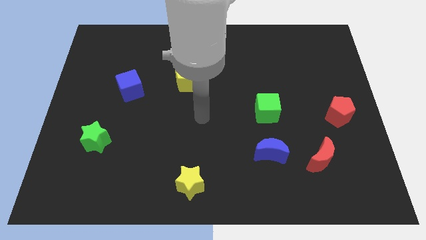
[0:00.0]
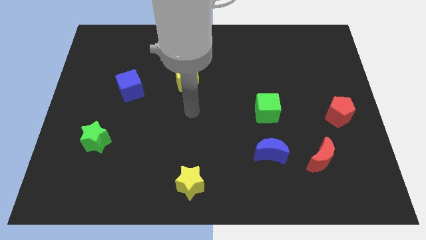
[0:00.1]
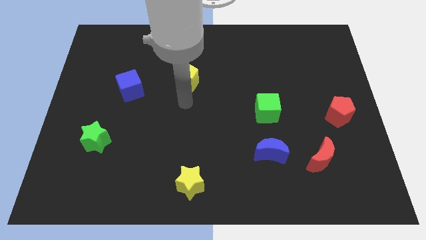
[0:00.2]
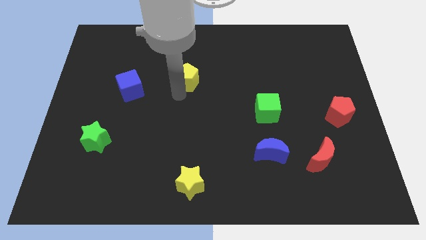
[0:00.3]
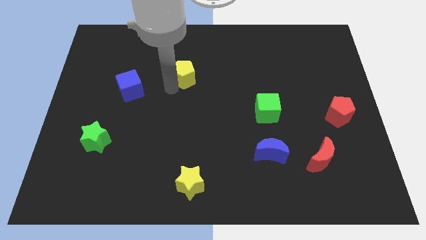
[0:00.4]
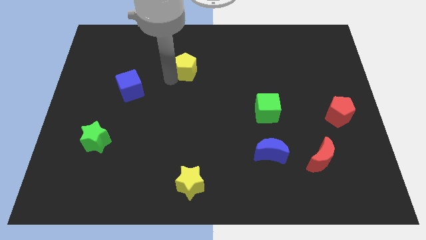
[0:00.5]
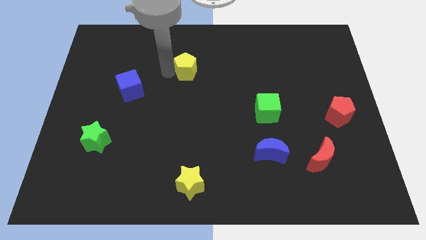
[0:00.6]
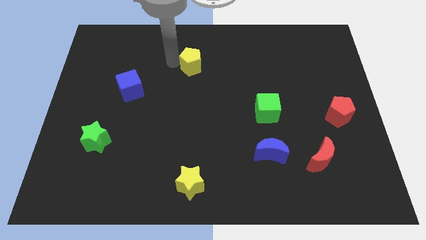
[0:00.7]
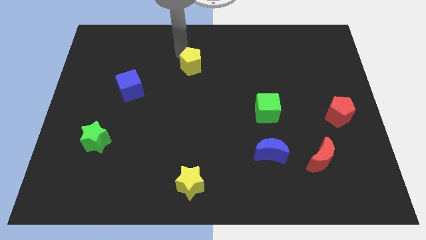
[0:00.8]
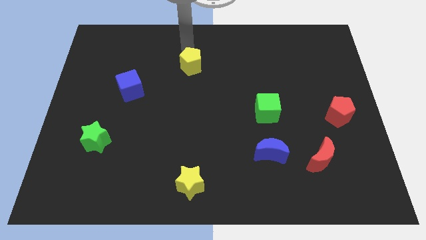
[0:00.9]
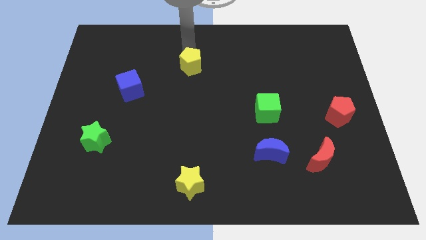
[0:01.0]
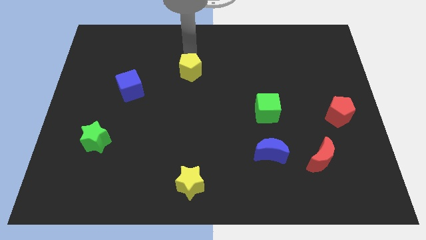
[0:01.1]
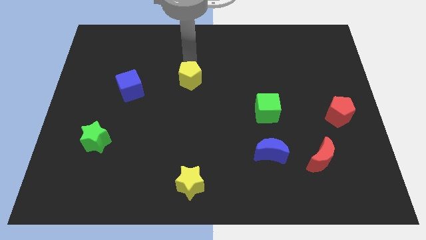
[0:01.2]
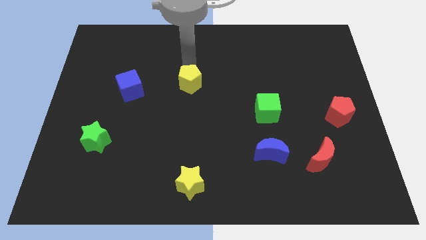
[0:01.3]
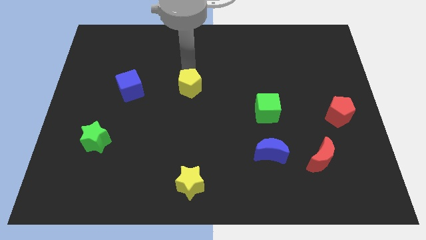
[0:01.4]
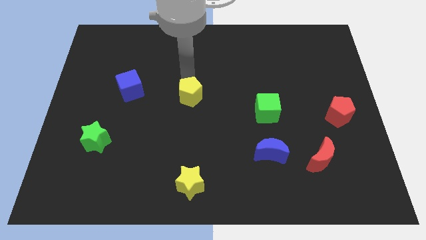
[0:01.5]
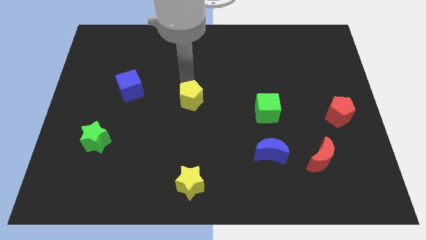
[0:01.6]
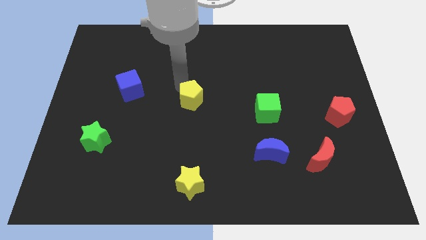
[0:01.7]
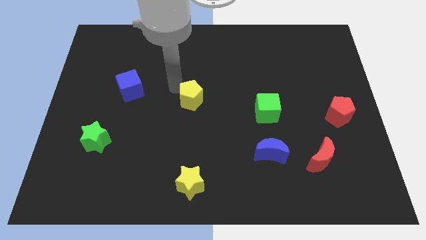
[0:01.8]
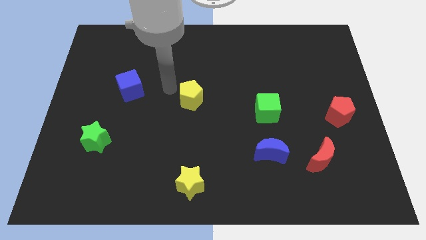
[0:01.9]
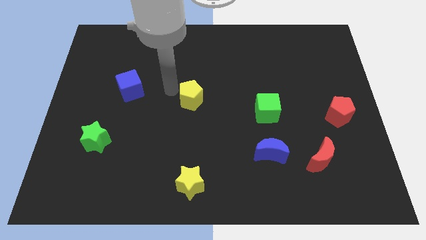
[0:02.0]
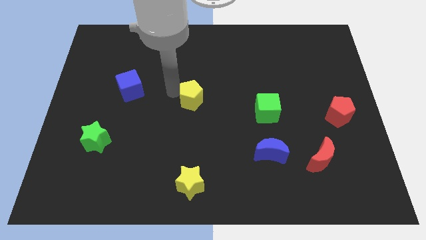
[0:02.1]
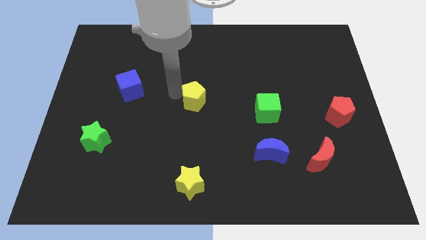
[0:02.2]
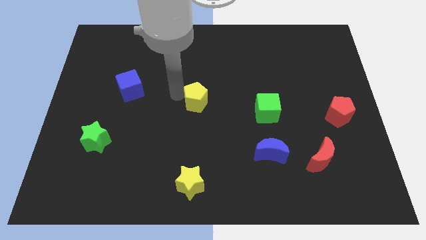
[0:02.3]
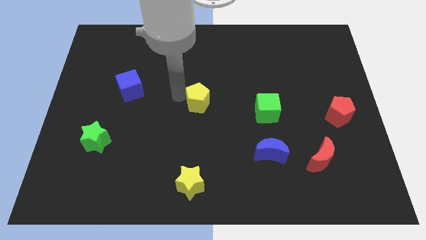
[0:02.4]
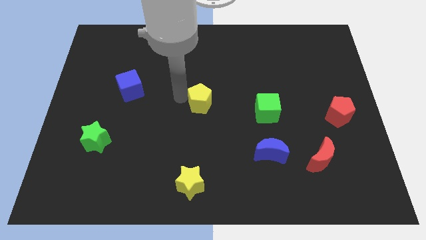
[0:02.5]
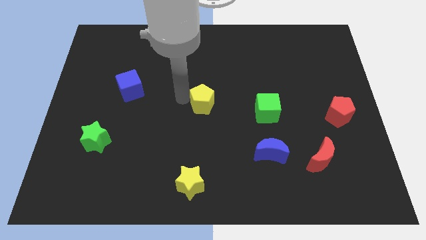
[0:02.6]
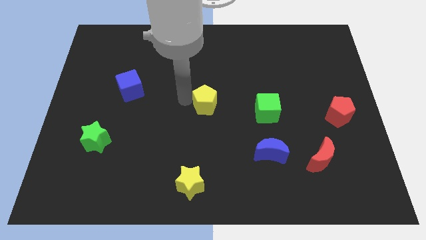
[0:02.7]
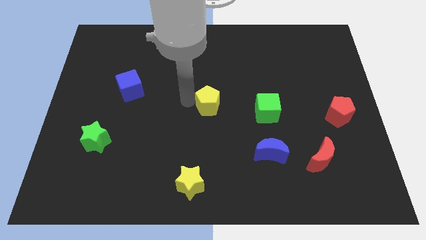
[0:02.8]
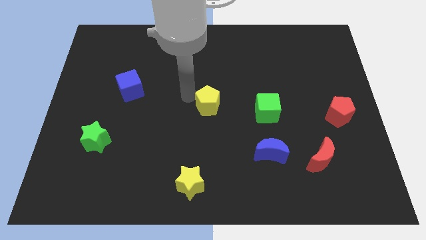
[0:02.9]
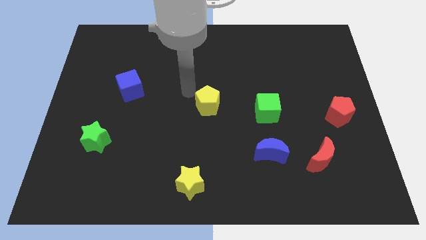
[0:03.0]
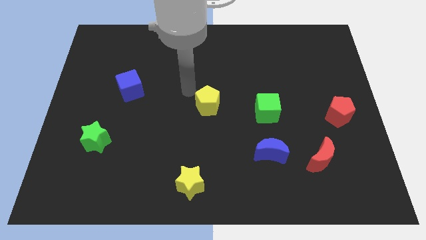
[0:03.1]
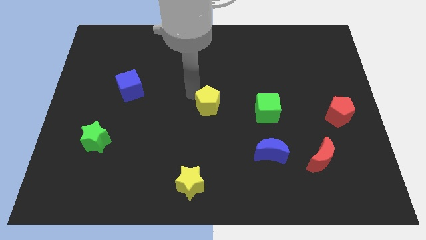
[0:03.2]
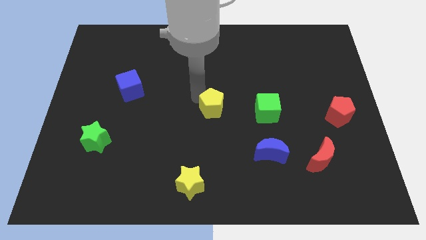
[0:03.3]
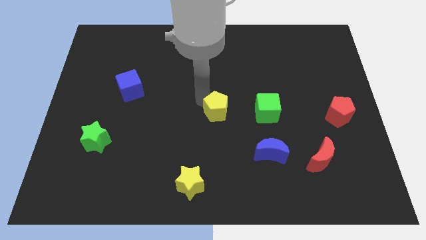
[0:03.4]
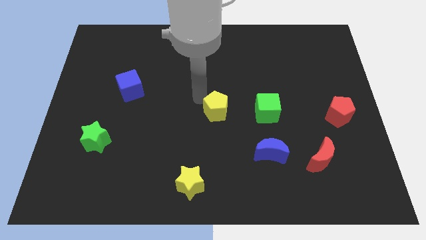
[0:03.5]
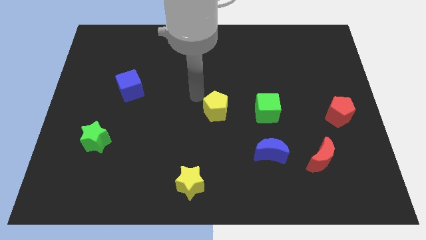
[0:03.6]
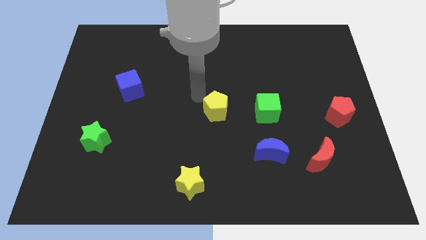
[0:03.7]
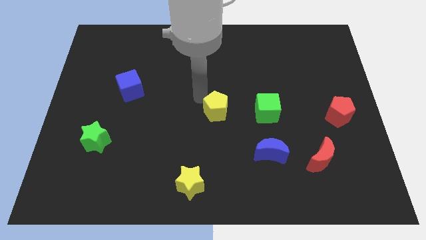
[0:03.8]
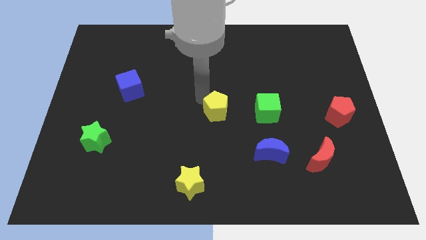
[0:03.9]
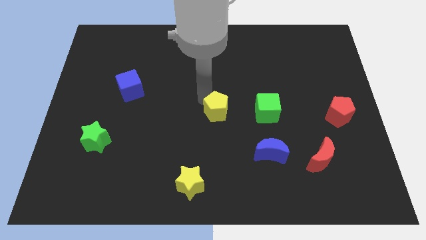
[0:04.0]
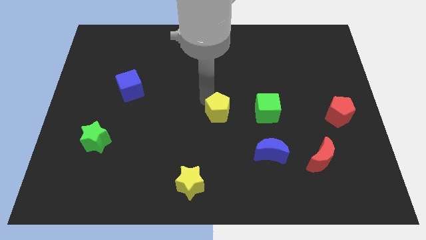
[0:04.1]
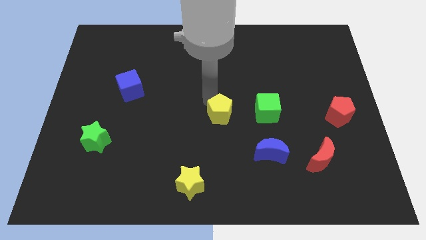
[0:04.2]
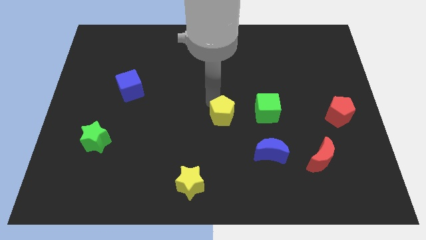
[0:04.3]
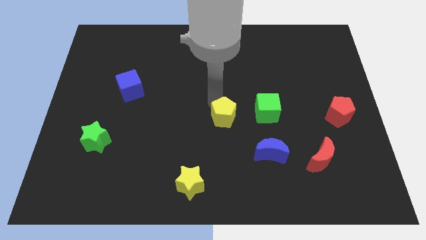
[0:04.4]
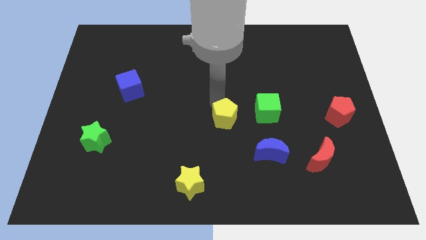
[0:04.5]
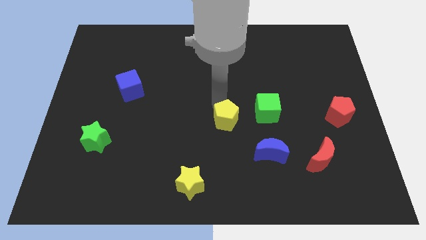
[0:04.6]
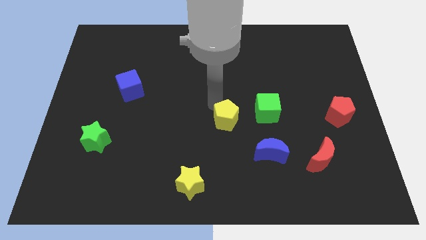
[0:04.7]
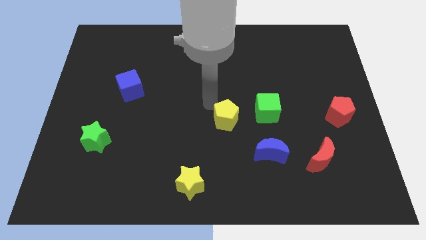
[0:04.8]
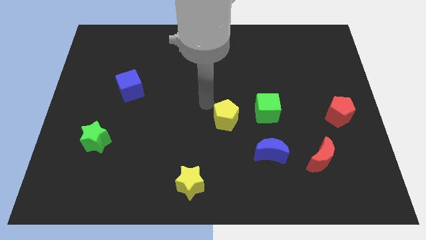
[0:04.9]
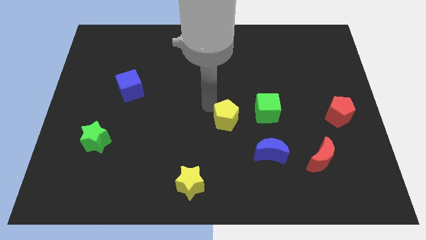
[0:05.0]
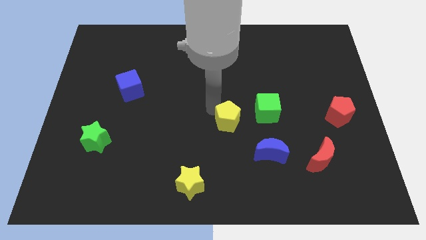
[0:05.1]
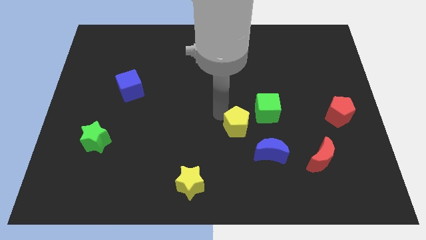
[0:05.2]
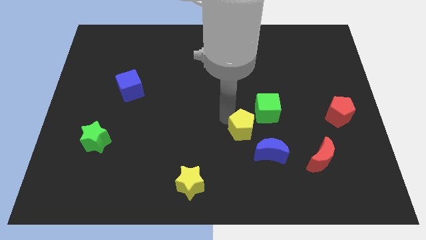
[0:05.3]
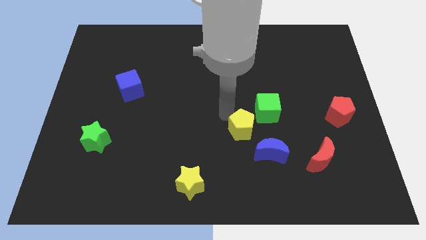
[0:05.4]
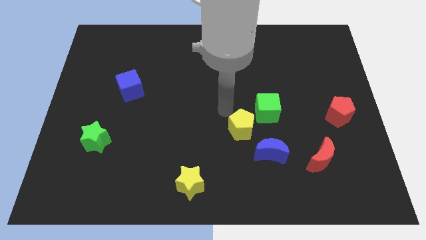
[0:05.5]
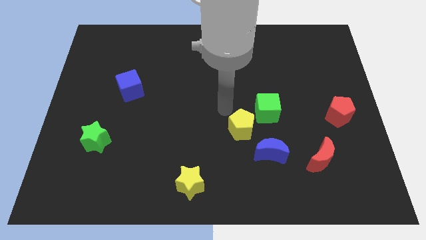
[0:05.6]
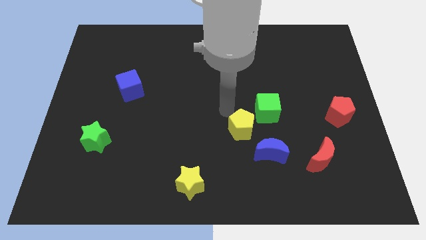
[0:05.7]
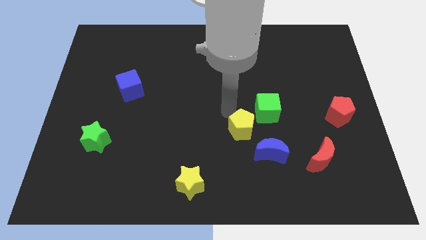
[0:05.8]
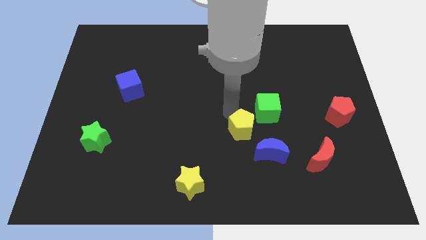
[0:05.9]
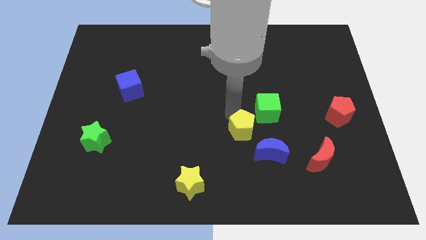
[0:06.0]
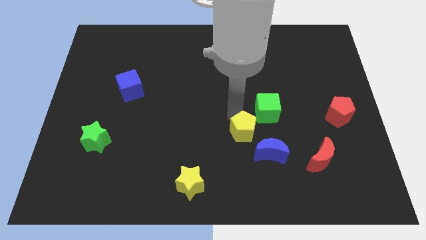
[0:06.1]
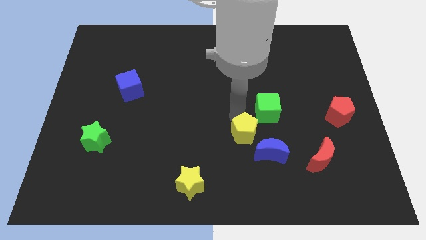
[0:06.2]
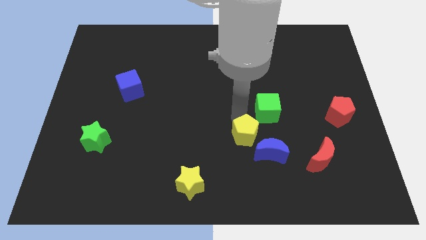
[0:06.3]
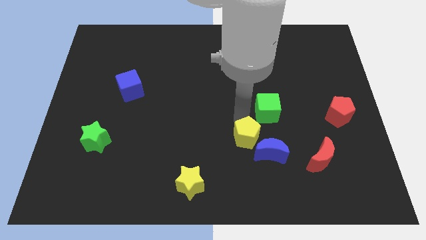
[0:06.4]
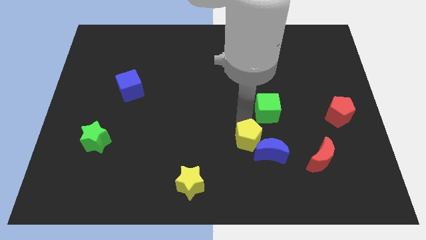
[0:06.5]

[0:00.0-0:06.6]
move the yellow pentagon next to the blue moon
